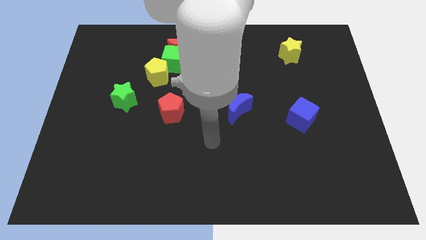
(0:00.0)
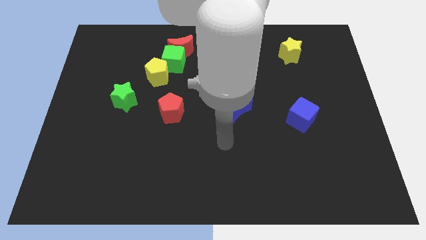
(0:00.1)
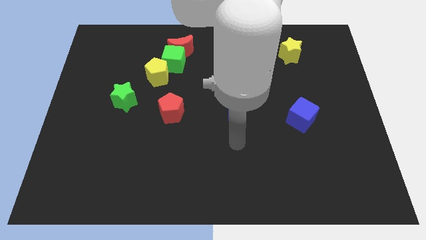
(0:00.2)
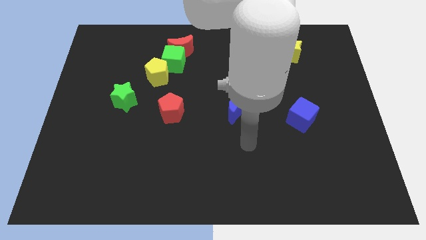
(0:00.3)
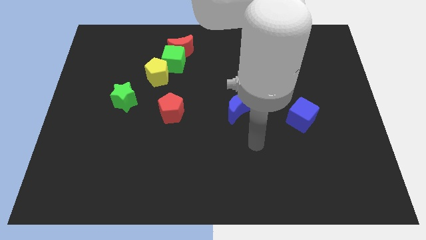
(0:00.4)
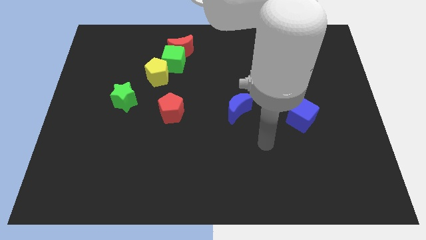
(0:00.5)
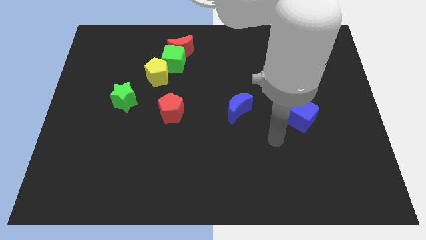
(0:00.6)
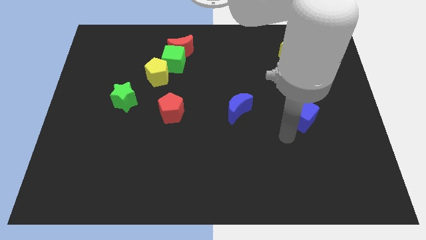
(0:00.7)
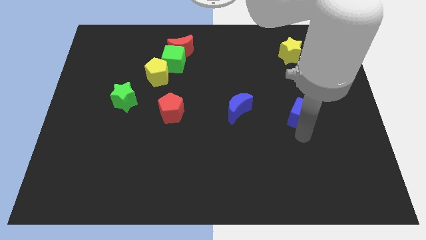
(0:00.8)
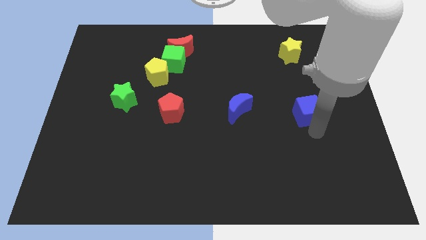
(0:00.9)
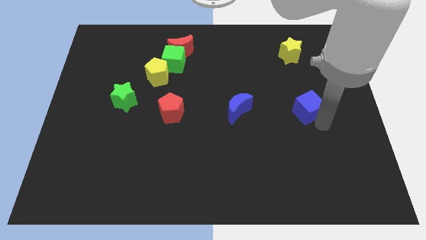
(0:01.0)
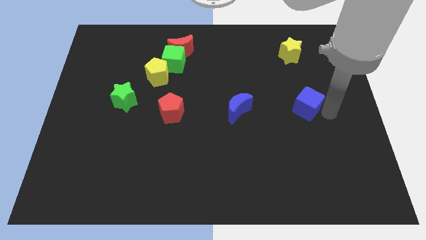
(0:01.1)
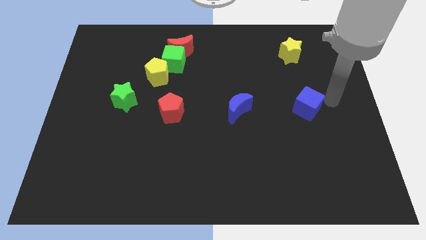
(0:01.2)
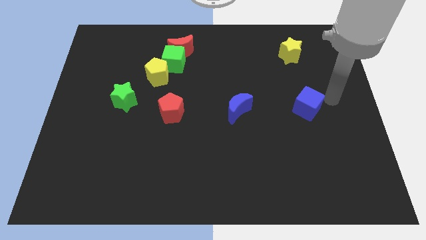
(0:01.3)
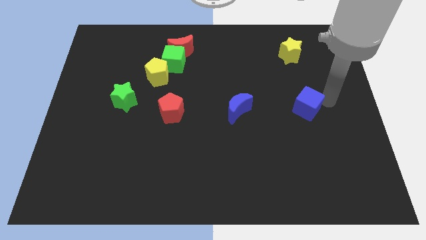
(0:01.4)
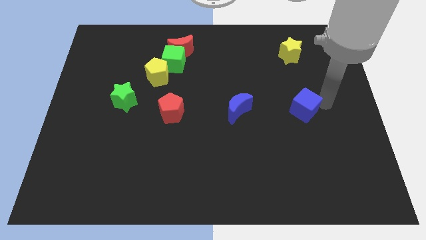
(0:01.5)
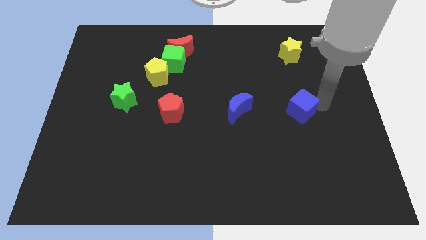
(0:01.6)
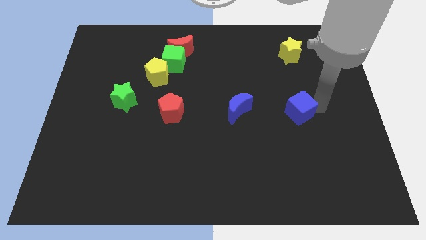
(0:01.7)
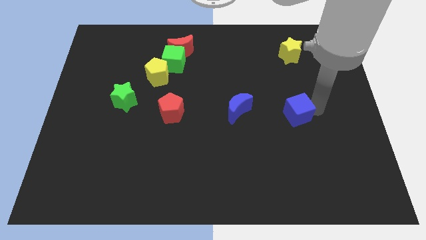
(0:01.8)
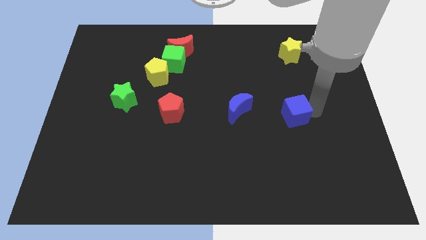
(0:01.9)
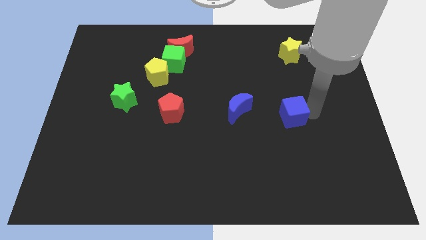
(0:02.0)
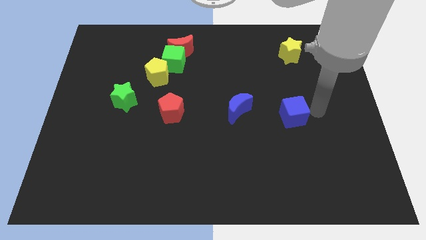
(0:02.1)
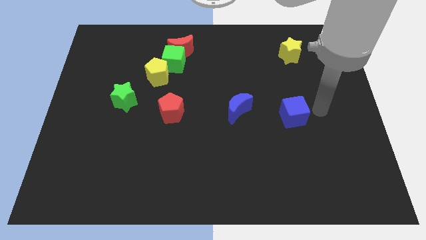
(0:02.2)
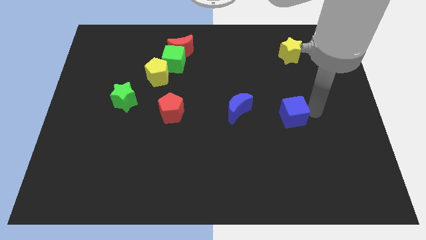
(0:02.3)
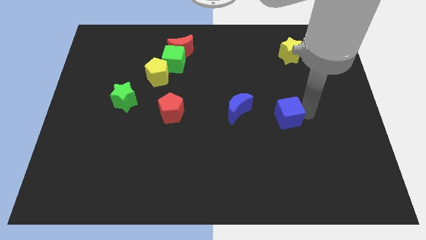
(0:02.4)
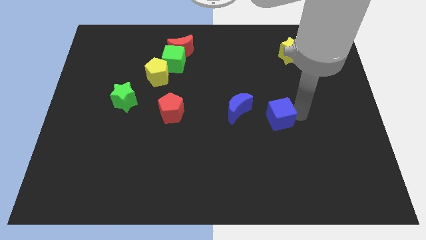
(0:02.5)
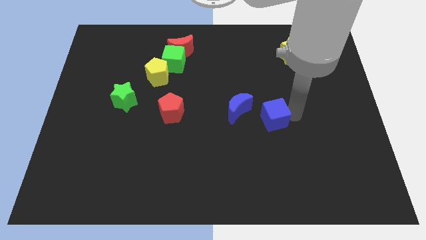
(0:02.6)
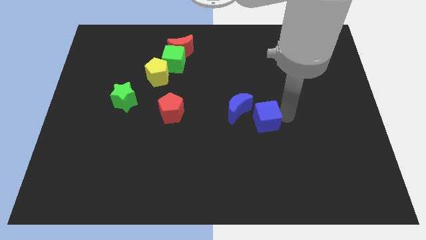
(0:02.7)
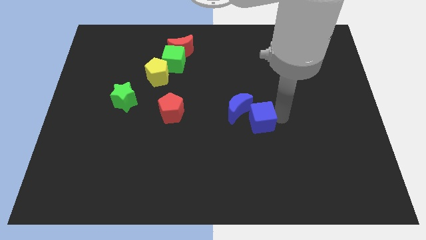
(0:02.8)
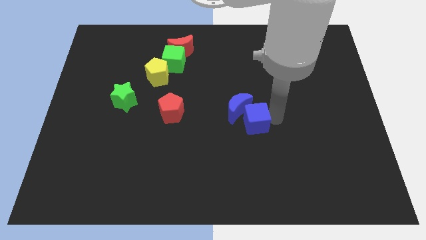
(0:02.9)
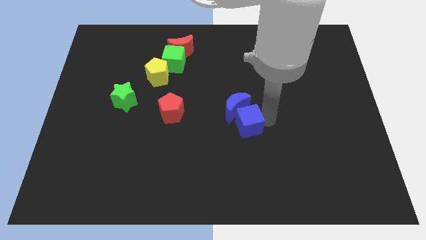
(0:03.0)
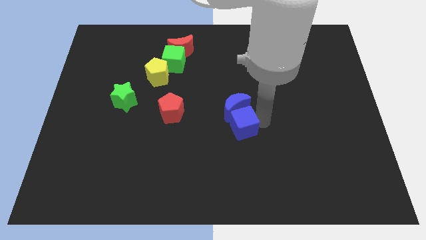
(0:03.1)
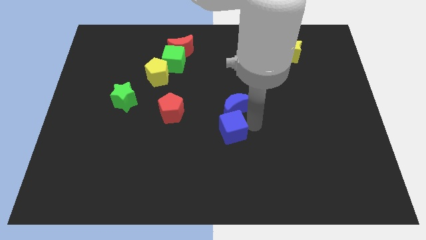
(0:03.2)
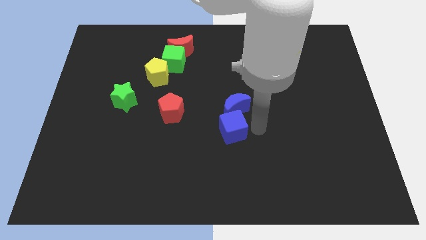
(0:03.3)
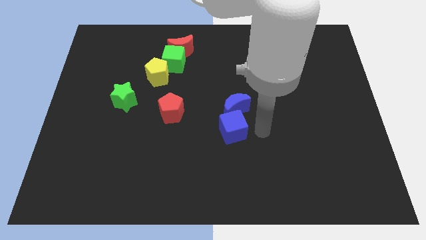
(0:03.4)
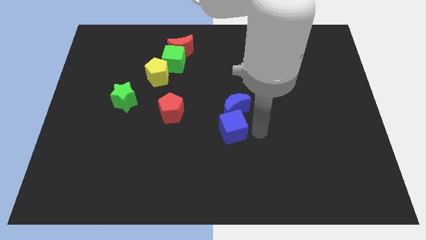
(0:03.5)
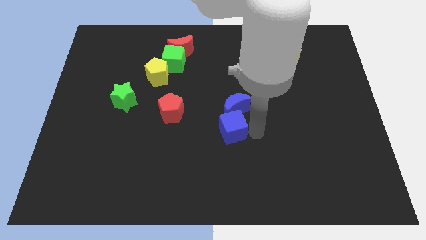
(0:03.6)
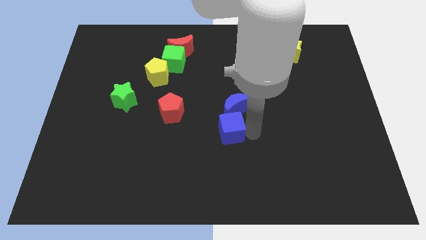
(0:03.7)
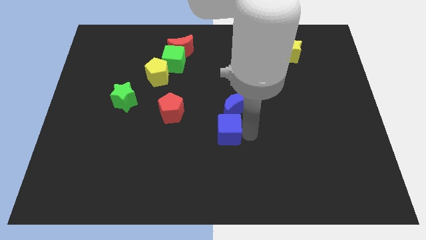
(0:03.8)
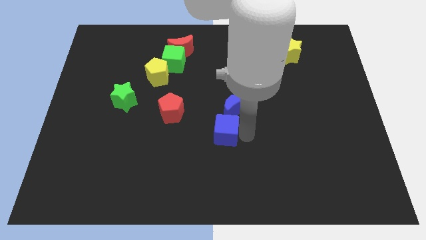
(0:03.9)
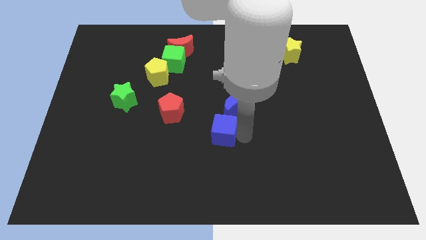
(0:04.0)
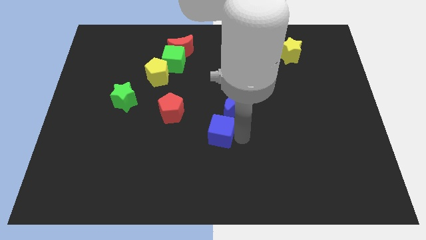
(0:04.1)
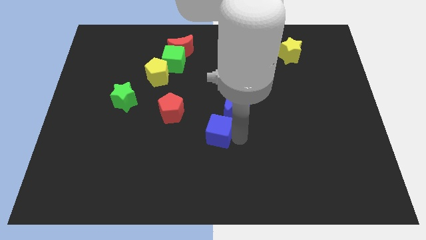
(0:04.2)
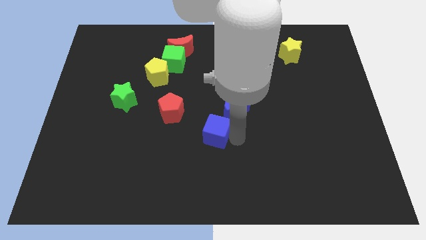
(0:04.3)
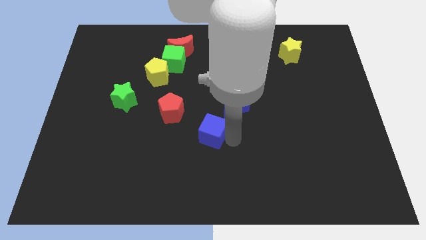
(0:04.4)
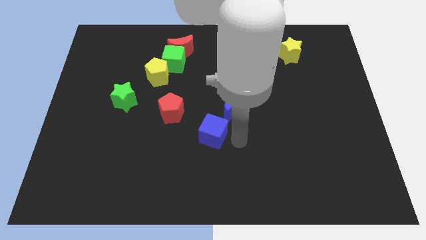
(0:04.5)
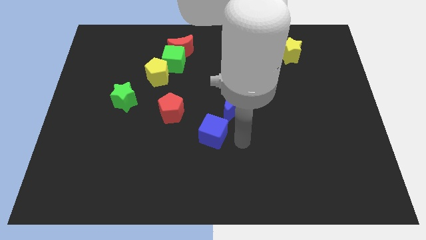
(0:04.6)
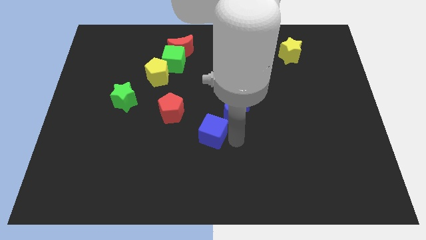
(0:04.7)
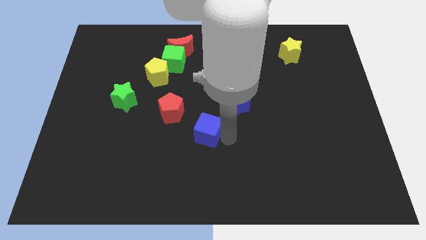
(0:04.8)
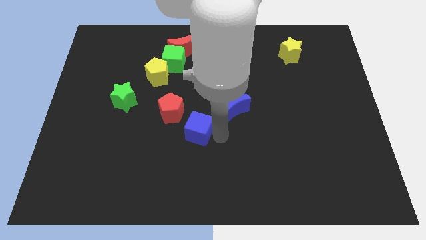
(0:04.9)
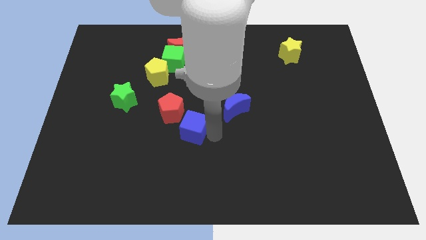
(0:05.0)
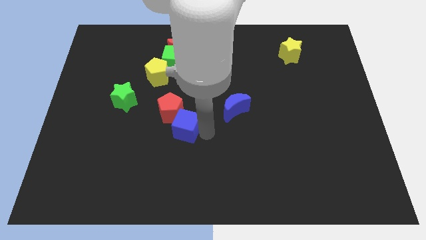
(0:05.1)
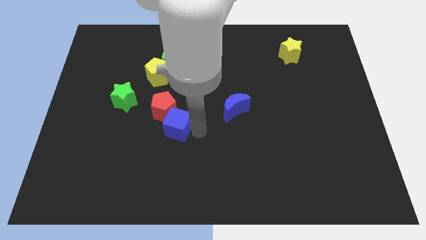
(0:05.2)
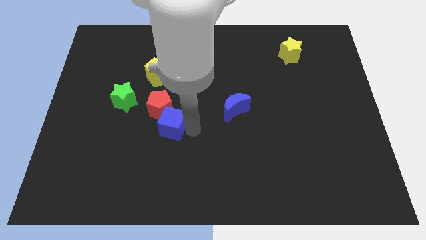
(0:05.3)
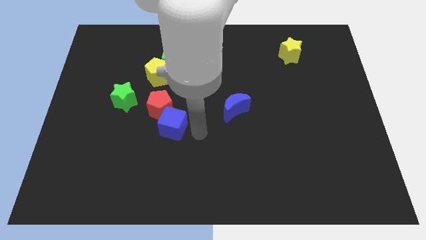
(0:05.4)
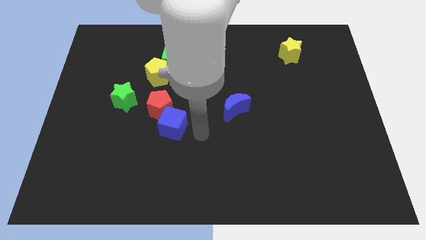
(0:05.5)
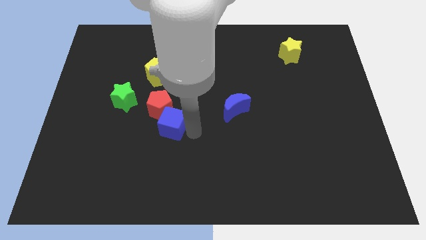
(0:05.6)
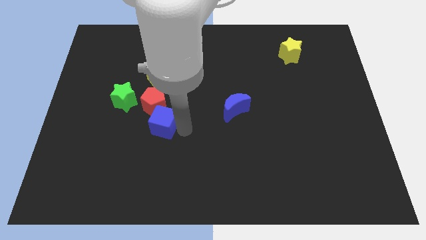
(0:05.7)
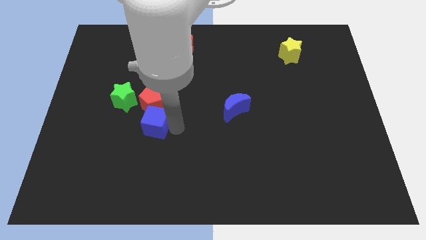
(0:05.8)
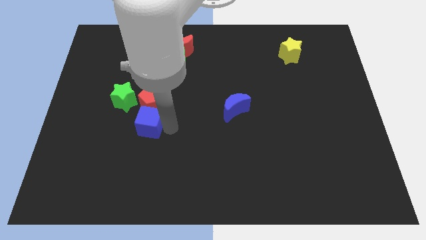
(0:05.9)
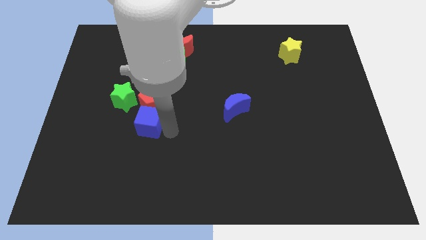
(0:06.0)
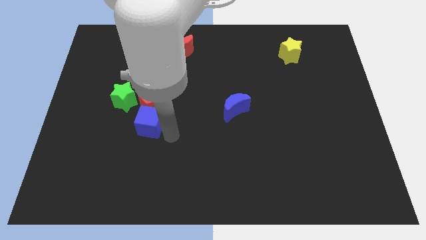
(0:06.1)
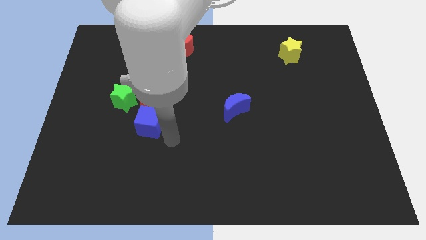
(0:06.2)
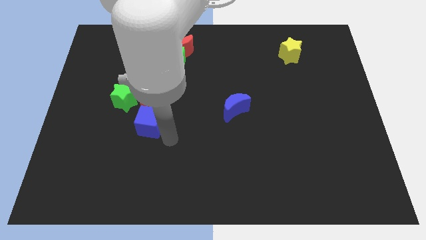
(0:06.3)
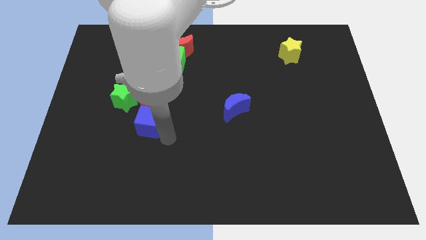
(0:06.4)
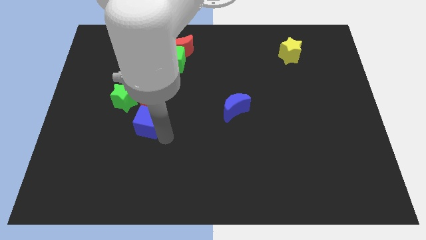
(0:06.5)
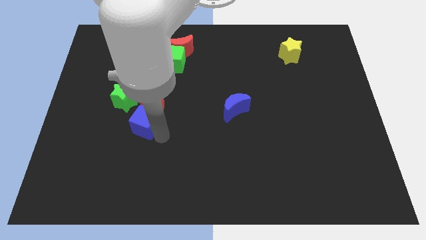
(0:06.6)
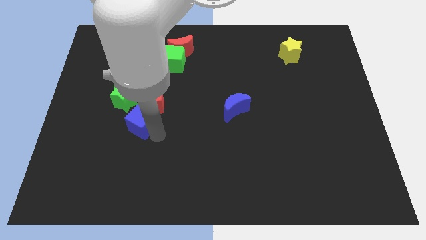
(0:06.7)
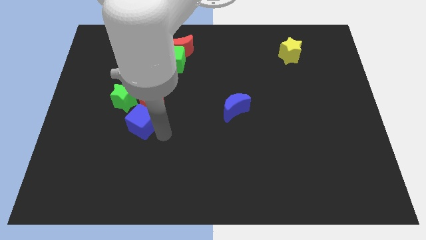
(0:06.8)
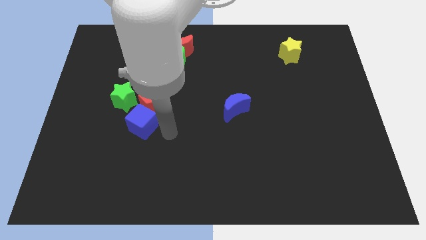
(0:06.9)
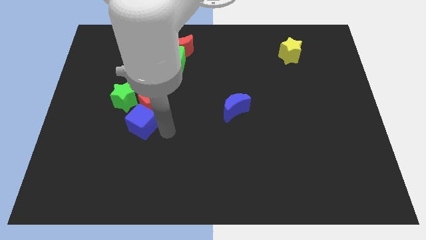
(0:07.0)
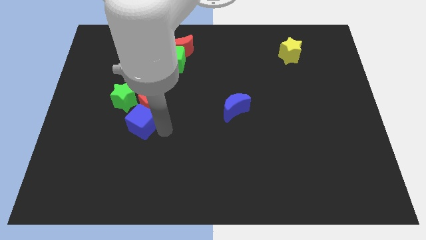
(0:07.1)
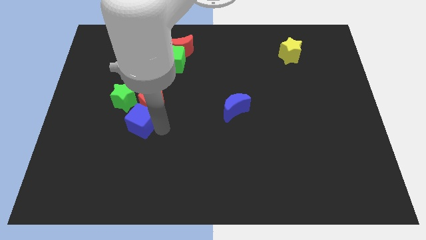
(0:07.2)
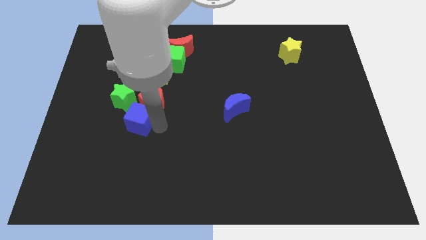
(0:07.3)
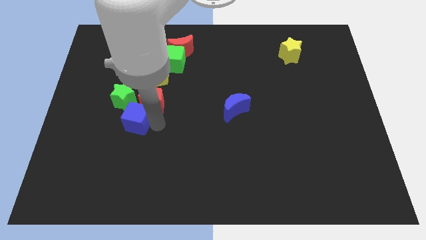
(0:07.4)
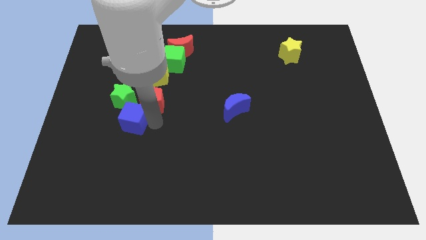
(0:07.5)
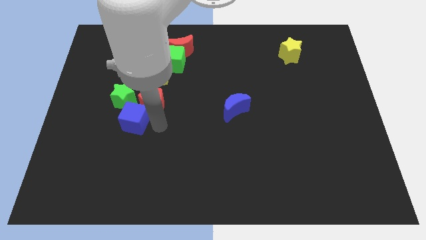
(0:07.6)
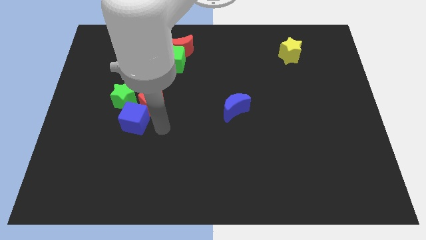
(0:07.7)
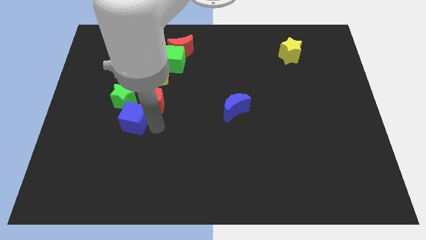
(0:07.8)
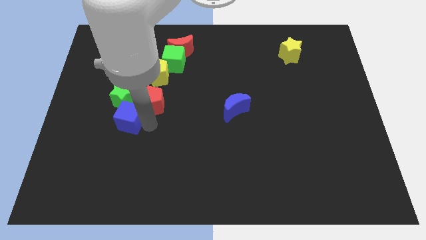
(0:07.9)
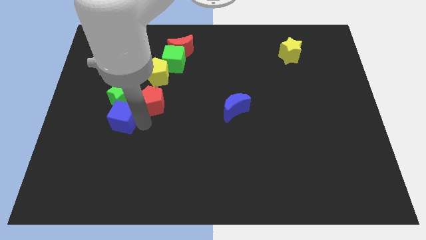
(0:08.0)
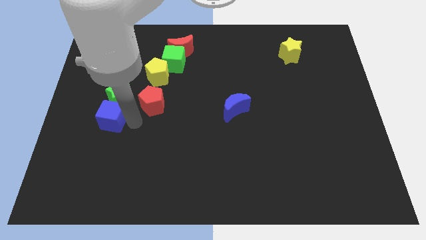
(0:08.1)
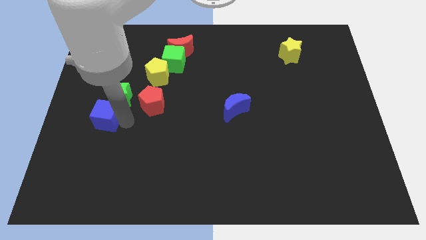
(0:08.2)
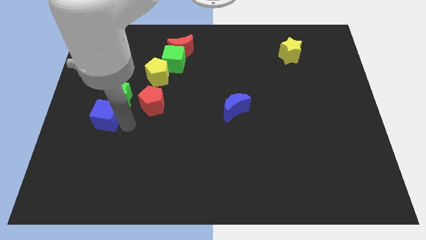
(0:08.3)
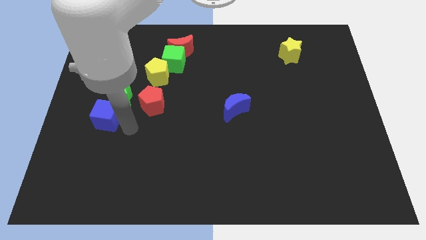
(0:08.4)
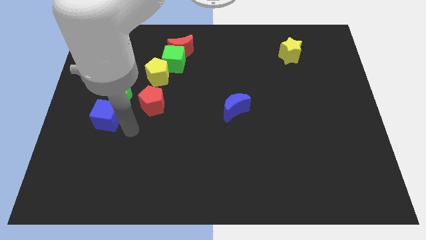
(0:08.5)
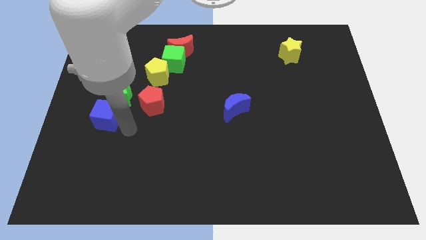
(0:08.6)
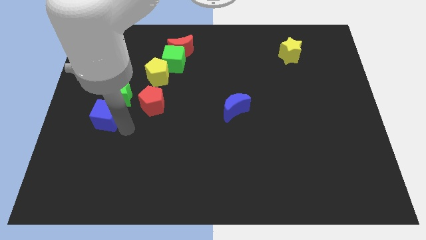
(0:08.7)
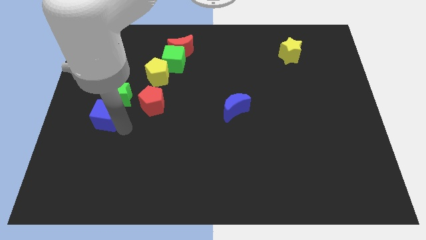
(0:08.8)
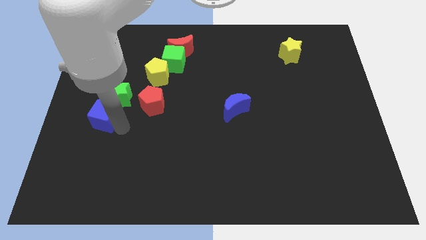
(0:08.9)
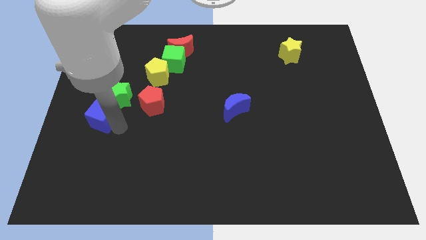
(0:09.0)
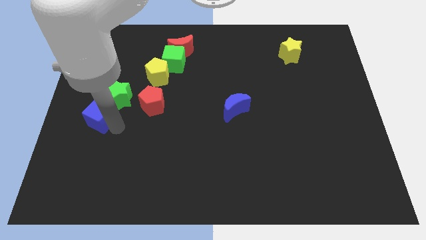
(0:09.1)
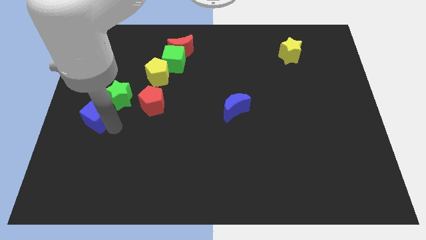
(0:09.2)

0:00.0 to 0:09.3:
put the blue cube to the left side
